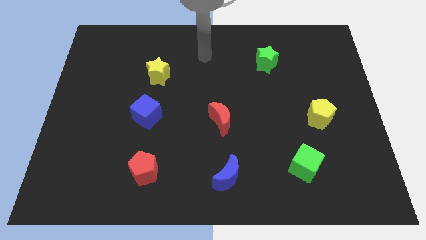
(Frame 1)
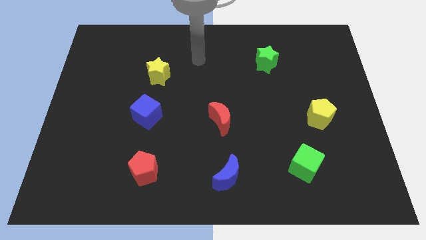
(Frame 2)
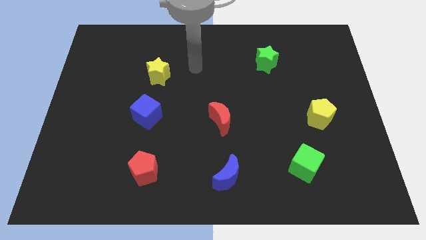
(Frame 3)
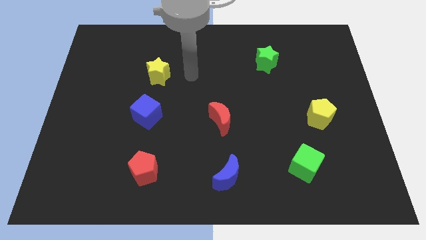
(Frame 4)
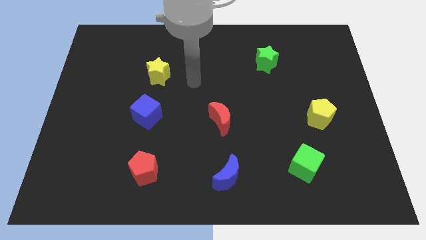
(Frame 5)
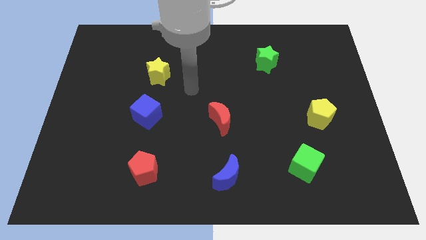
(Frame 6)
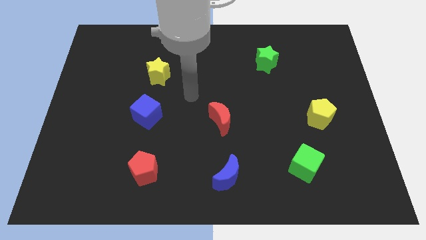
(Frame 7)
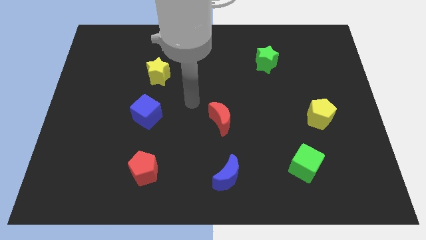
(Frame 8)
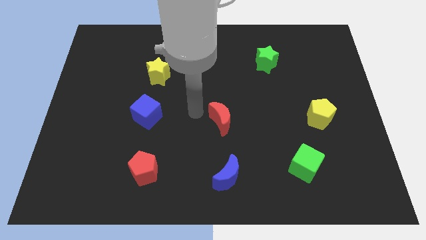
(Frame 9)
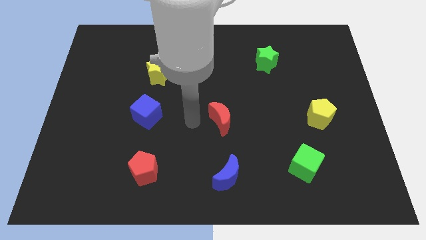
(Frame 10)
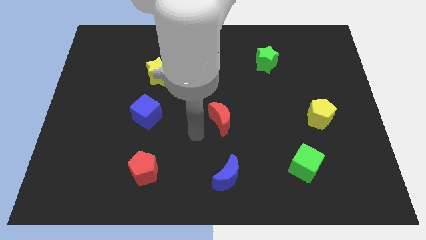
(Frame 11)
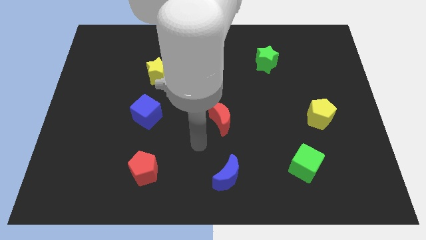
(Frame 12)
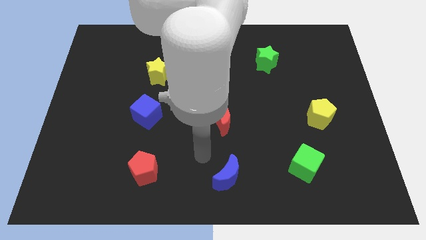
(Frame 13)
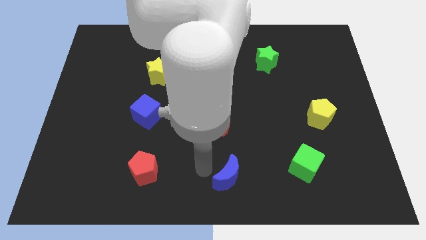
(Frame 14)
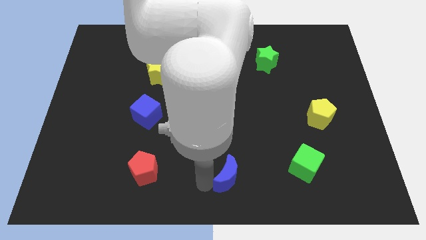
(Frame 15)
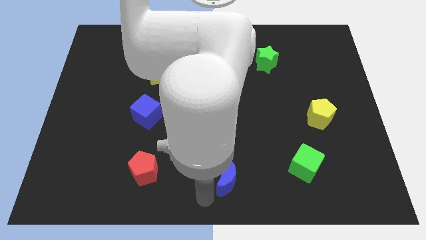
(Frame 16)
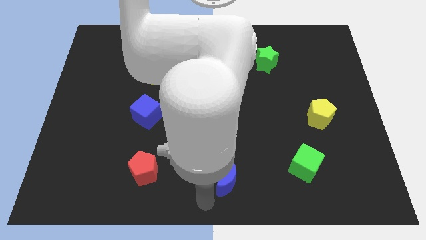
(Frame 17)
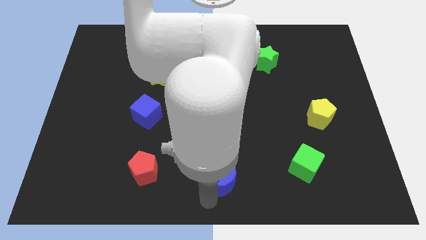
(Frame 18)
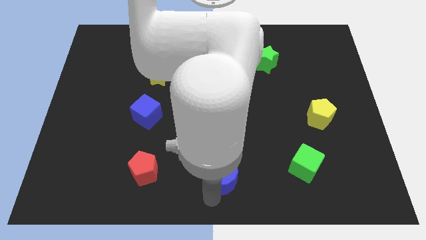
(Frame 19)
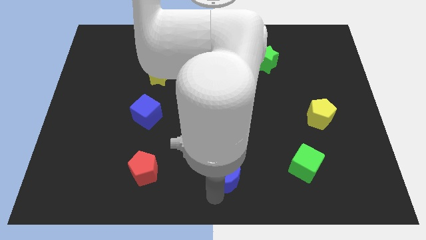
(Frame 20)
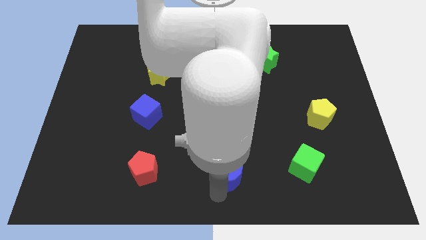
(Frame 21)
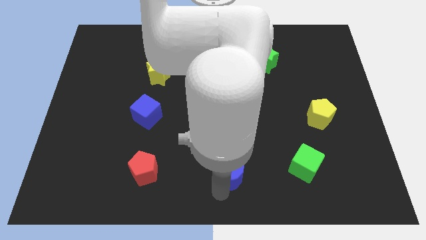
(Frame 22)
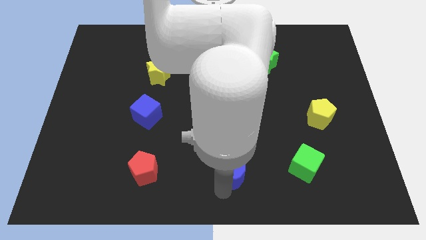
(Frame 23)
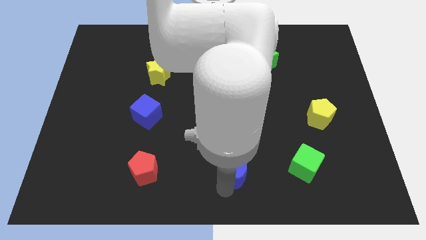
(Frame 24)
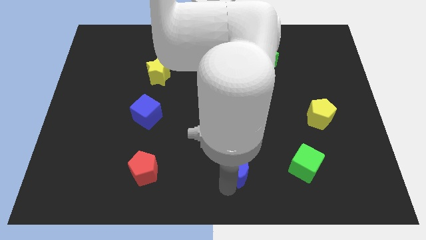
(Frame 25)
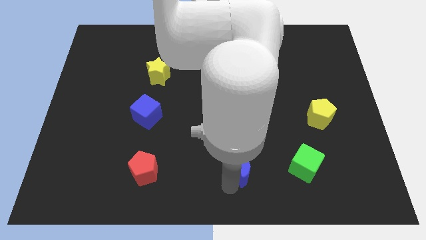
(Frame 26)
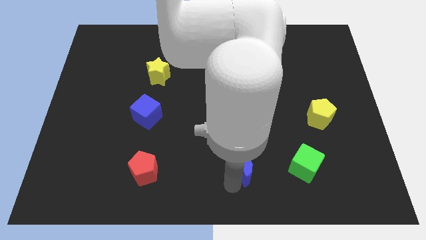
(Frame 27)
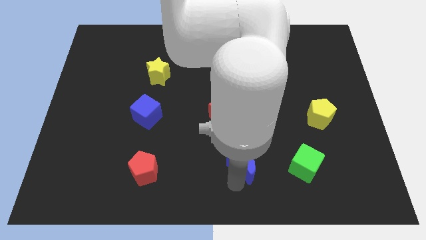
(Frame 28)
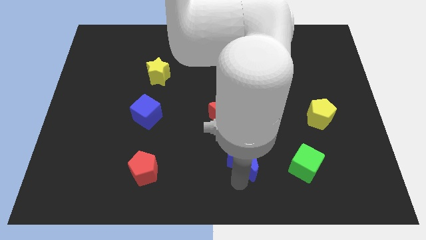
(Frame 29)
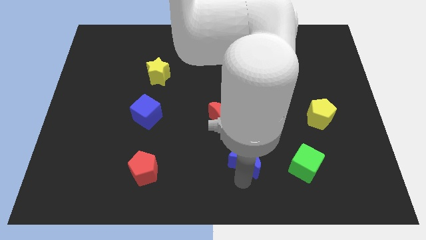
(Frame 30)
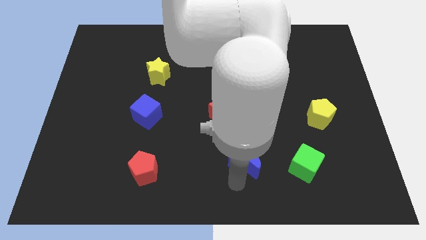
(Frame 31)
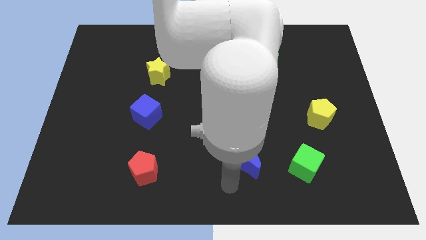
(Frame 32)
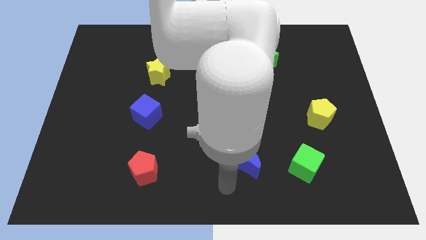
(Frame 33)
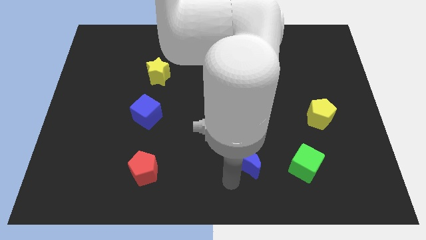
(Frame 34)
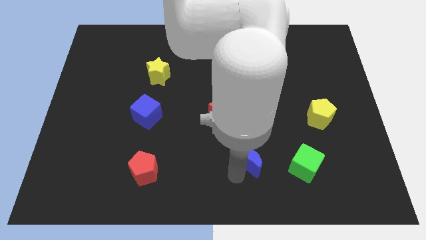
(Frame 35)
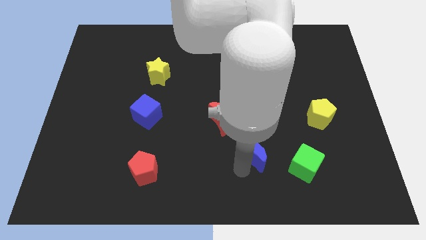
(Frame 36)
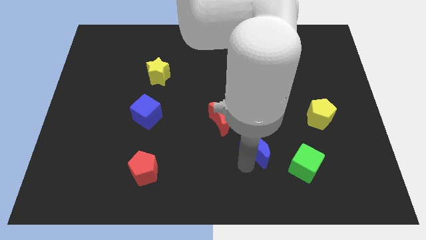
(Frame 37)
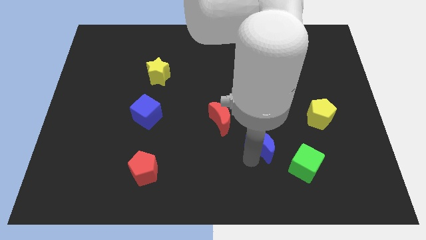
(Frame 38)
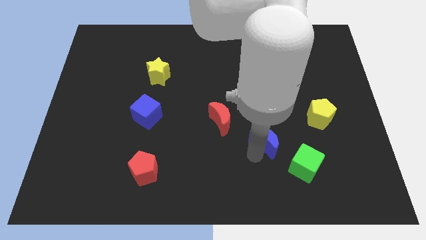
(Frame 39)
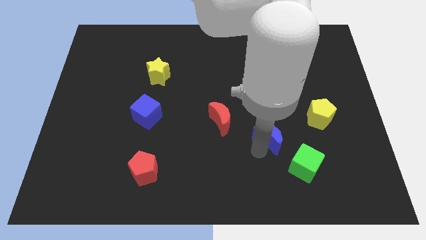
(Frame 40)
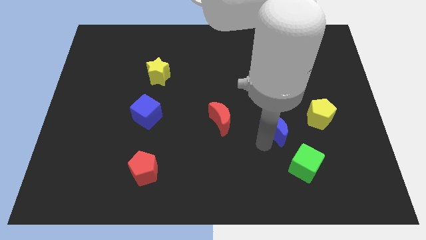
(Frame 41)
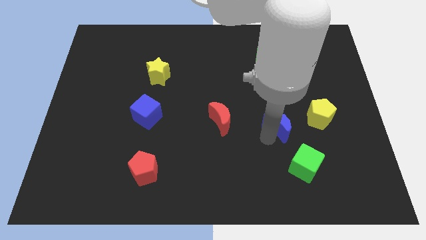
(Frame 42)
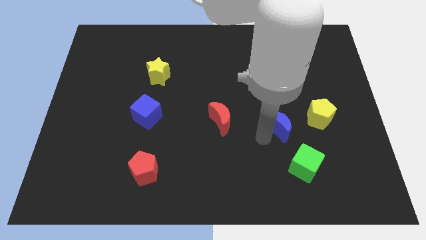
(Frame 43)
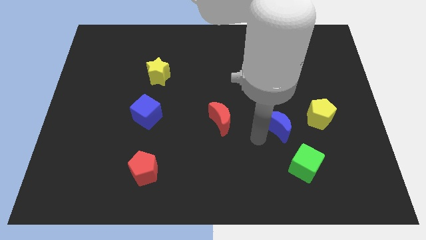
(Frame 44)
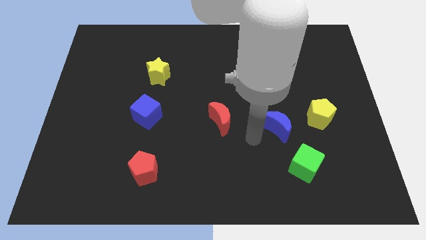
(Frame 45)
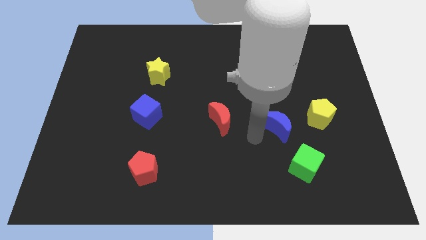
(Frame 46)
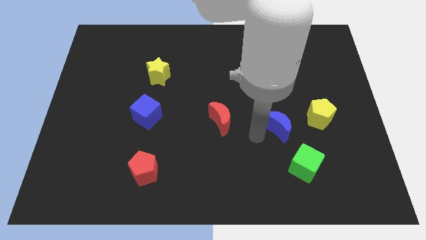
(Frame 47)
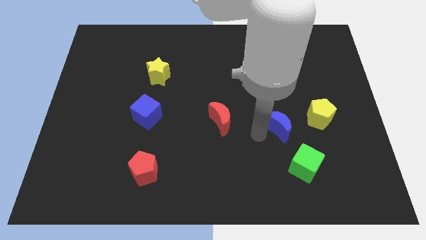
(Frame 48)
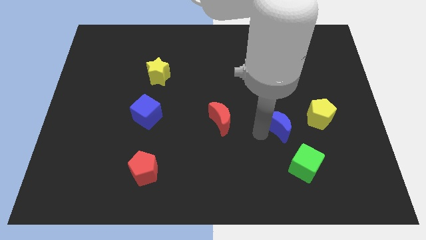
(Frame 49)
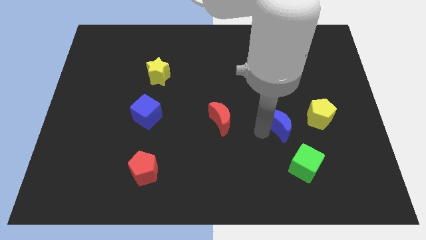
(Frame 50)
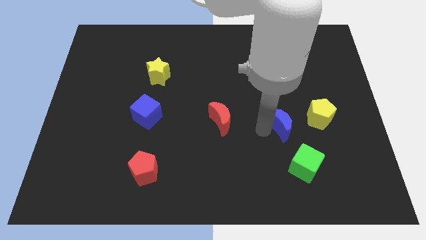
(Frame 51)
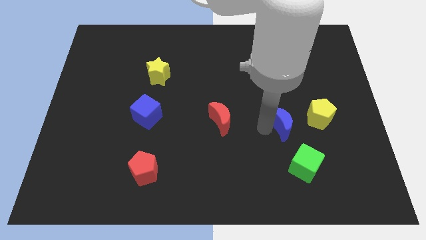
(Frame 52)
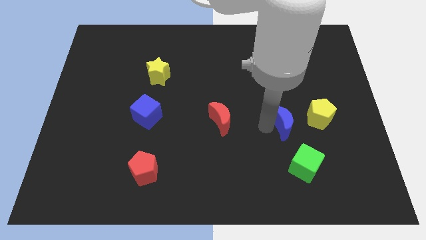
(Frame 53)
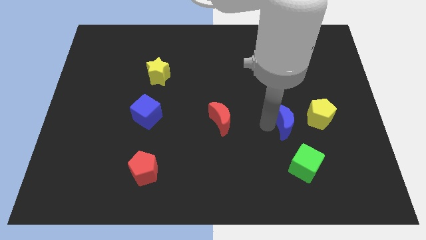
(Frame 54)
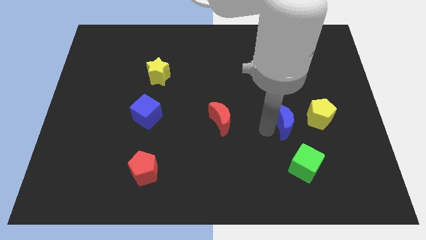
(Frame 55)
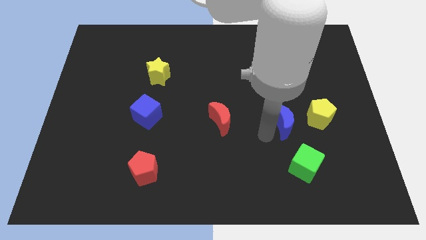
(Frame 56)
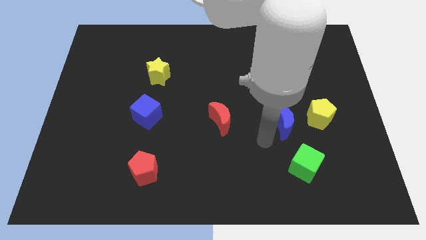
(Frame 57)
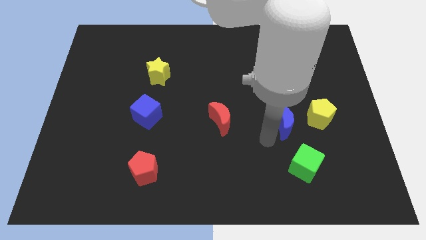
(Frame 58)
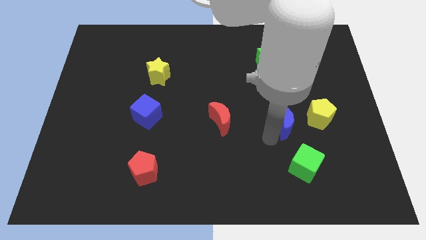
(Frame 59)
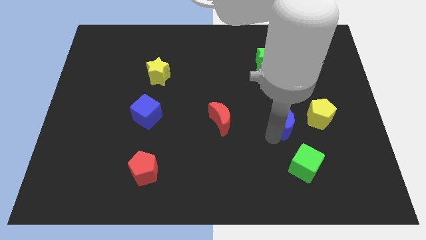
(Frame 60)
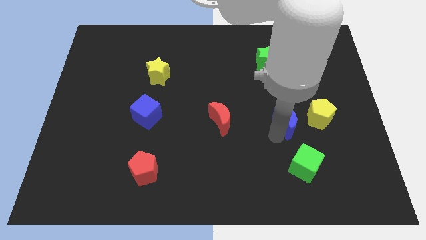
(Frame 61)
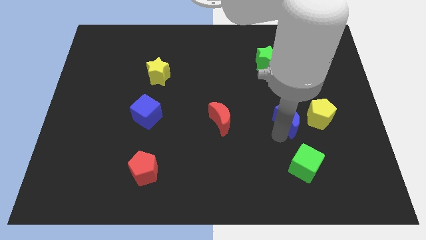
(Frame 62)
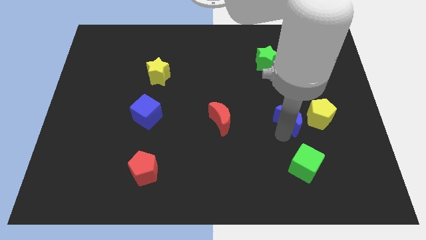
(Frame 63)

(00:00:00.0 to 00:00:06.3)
push the blue moon up and right diagonally

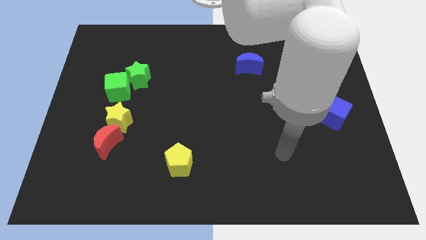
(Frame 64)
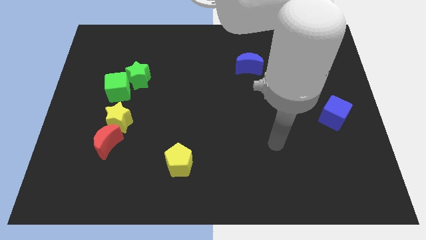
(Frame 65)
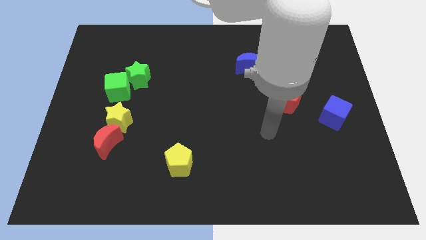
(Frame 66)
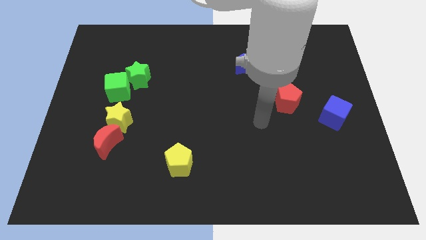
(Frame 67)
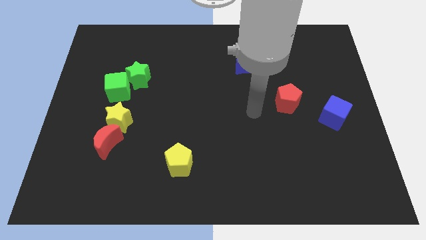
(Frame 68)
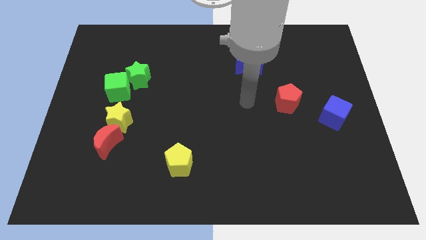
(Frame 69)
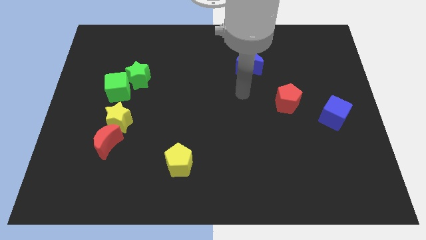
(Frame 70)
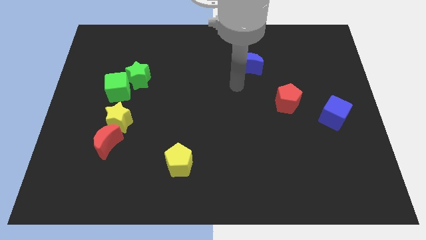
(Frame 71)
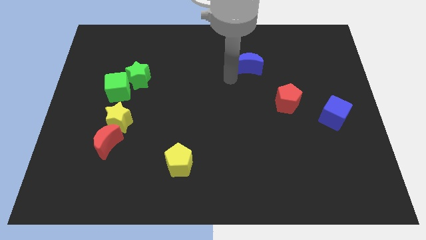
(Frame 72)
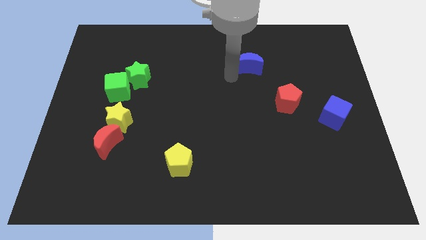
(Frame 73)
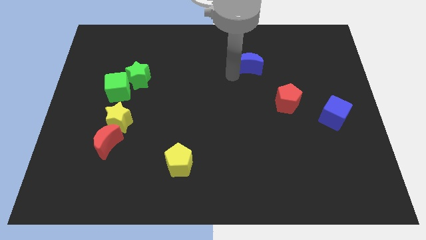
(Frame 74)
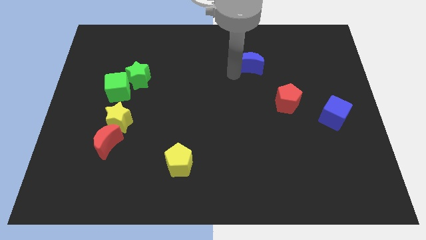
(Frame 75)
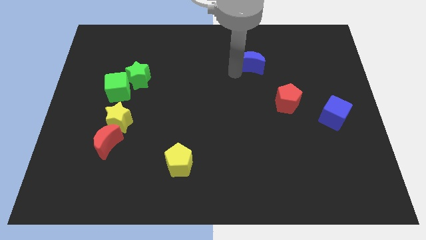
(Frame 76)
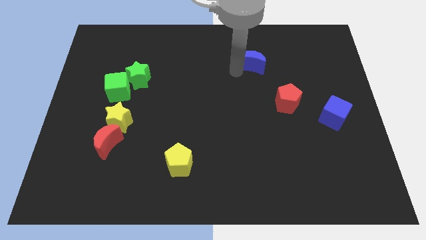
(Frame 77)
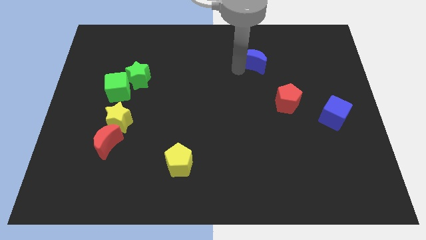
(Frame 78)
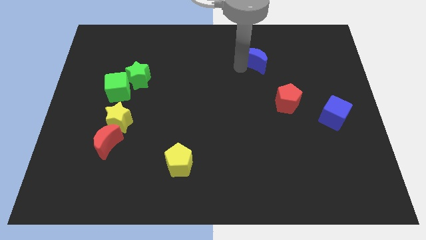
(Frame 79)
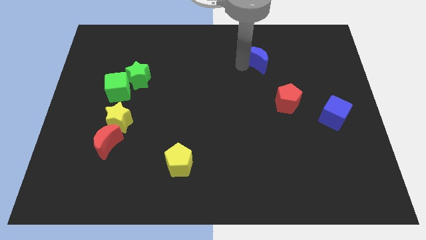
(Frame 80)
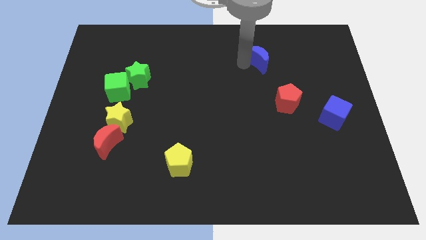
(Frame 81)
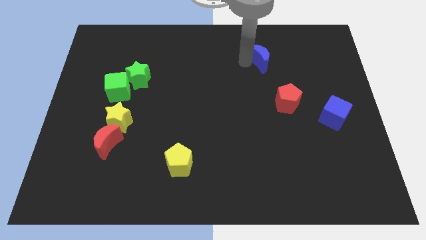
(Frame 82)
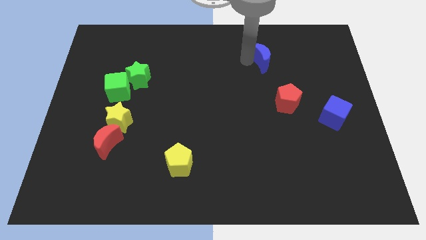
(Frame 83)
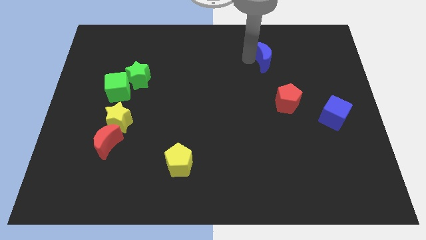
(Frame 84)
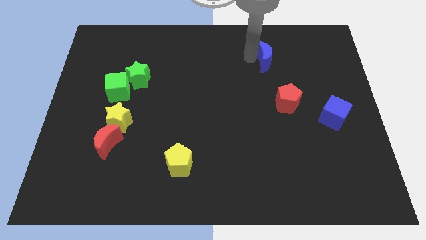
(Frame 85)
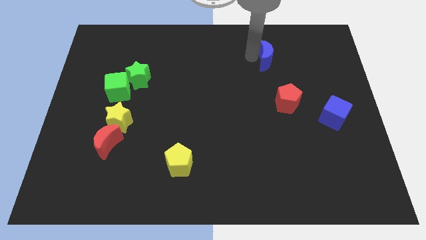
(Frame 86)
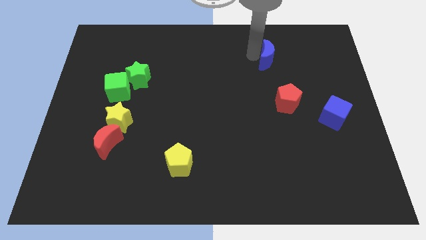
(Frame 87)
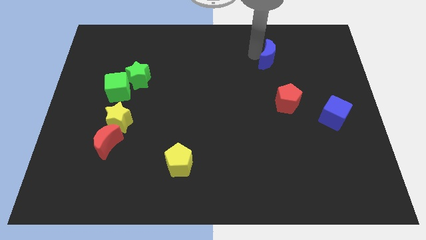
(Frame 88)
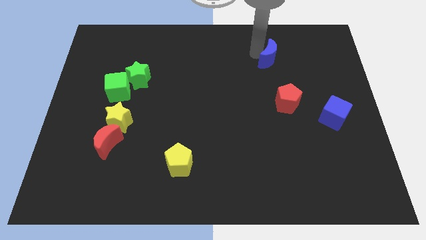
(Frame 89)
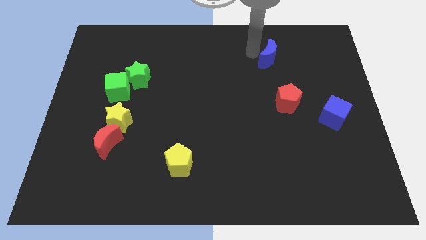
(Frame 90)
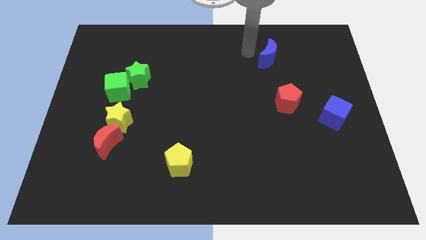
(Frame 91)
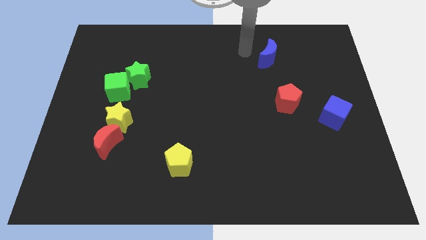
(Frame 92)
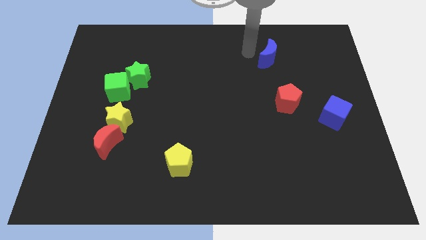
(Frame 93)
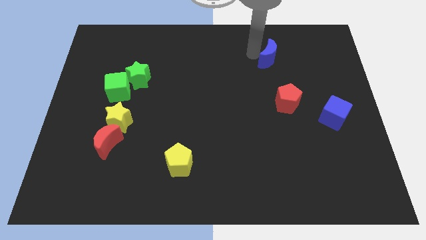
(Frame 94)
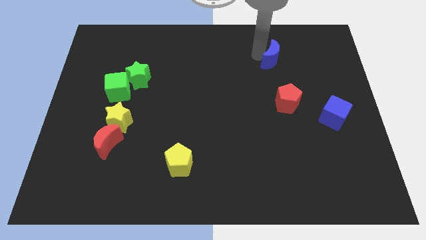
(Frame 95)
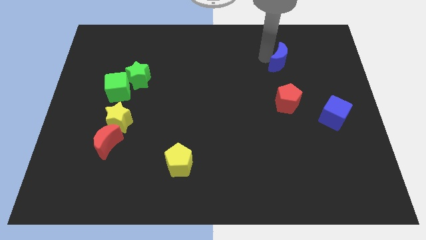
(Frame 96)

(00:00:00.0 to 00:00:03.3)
slide the blue moon somewhat to the right
